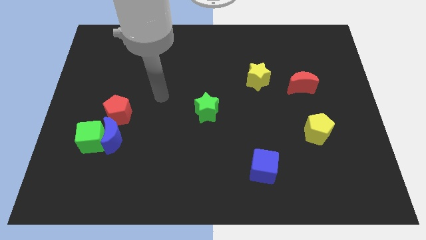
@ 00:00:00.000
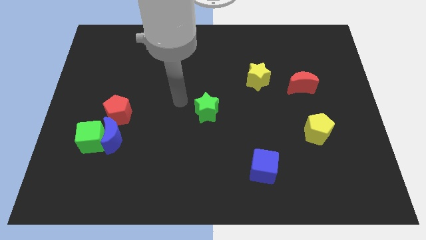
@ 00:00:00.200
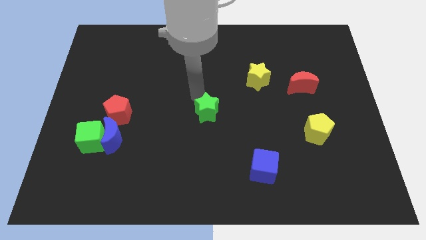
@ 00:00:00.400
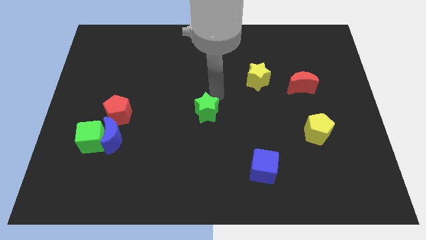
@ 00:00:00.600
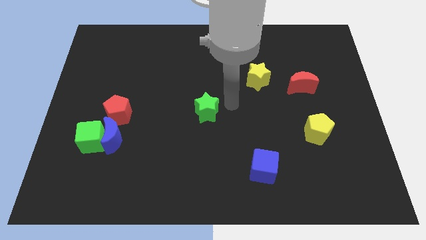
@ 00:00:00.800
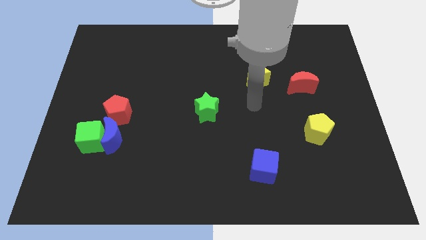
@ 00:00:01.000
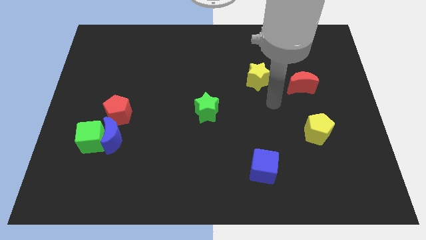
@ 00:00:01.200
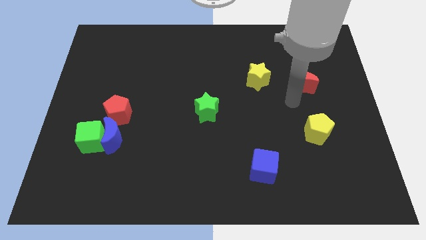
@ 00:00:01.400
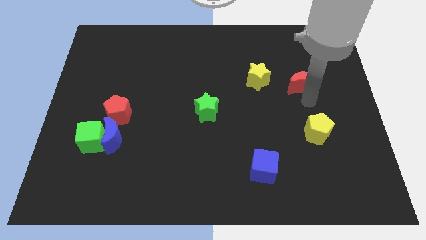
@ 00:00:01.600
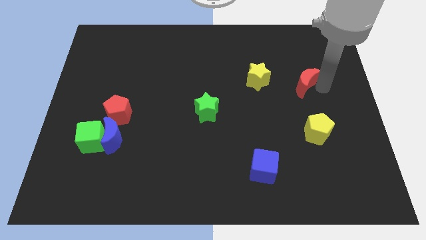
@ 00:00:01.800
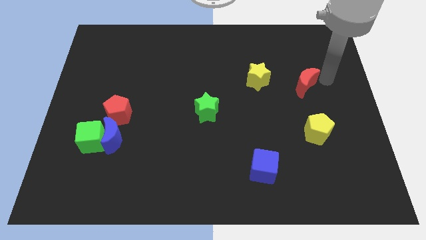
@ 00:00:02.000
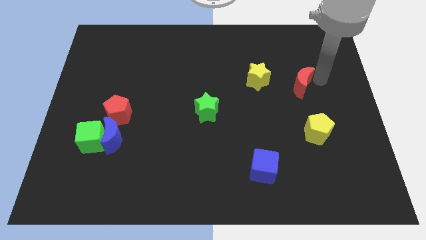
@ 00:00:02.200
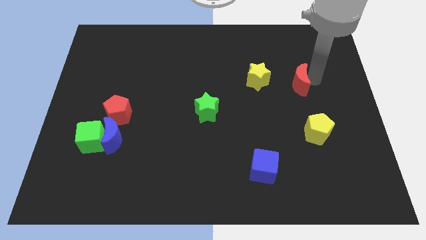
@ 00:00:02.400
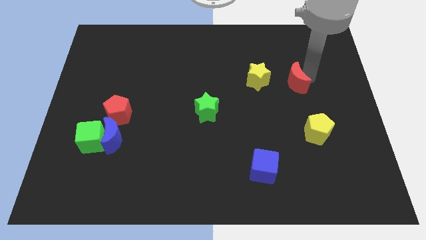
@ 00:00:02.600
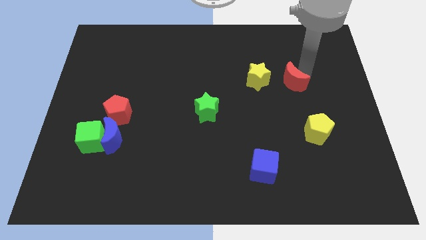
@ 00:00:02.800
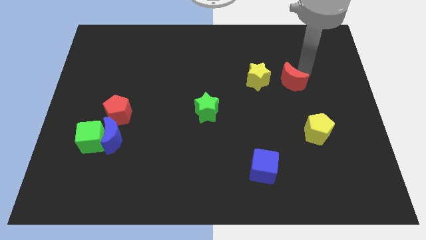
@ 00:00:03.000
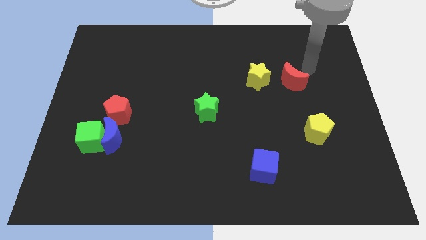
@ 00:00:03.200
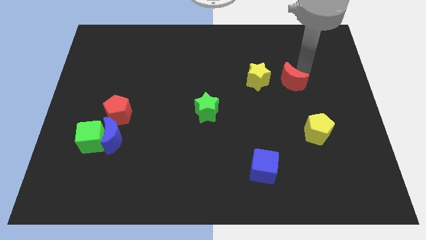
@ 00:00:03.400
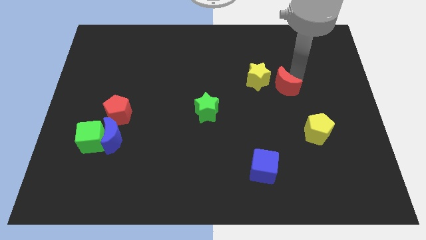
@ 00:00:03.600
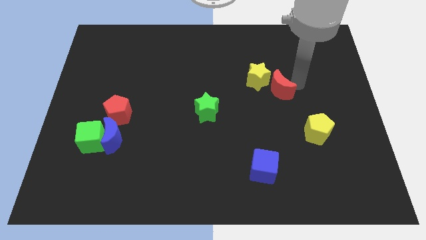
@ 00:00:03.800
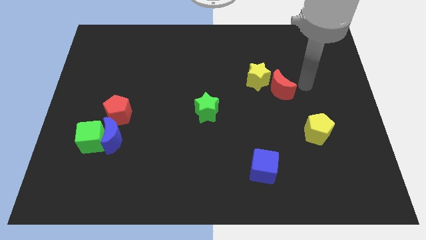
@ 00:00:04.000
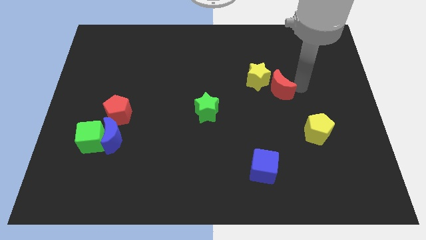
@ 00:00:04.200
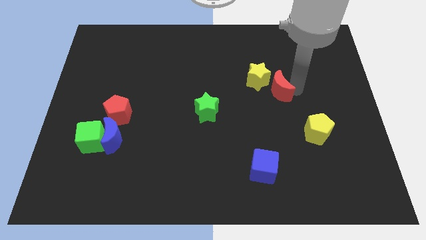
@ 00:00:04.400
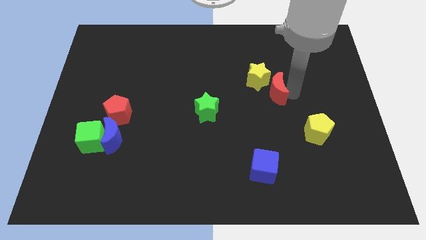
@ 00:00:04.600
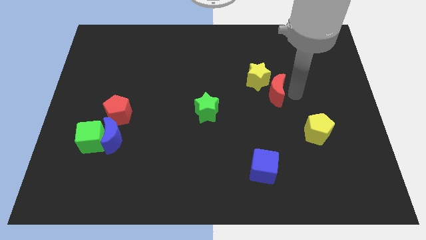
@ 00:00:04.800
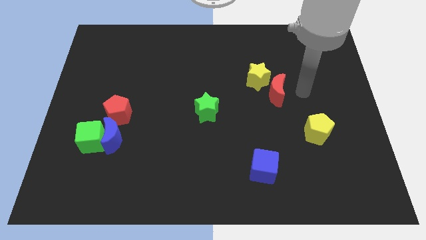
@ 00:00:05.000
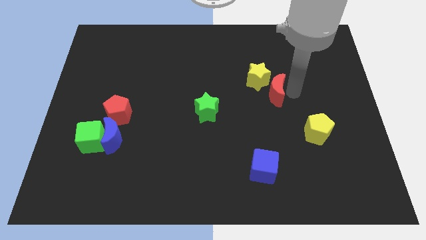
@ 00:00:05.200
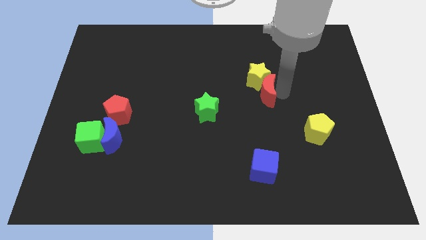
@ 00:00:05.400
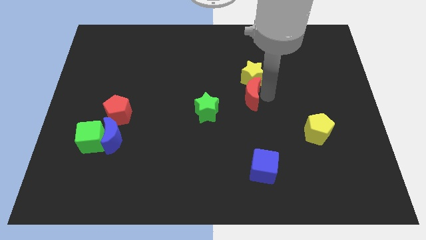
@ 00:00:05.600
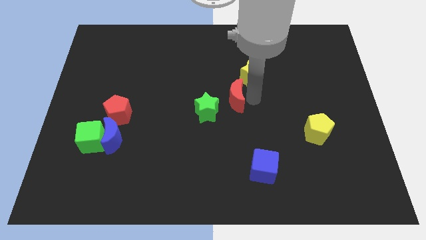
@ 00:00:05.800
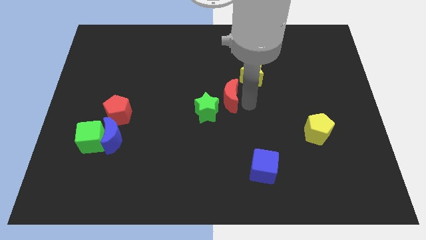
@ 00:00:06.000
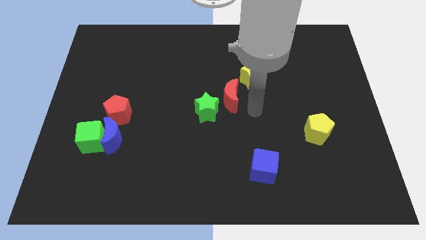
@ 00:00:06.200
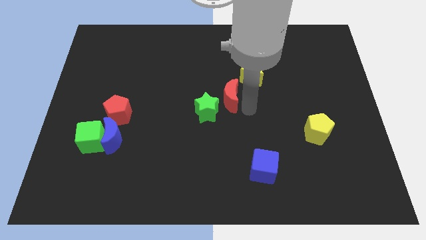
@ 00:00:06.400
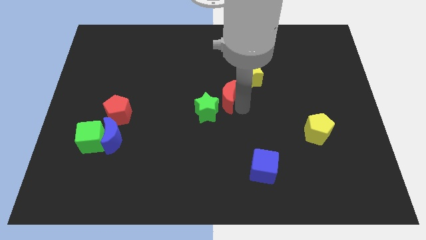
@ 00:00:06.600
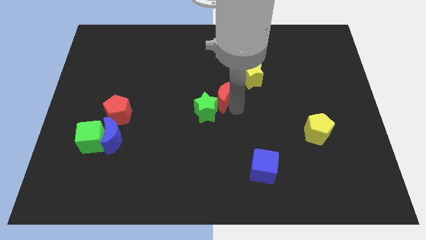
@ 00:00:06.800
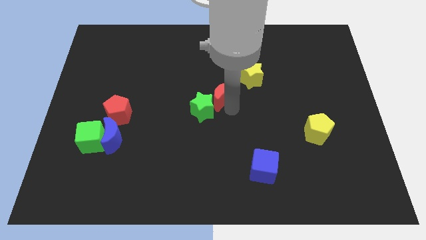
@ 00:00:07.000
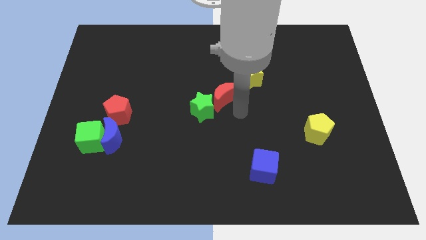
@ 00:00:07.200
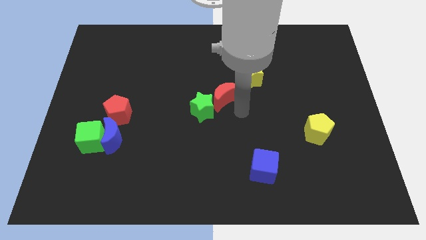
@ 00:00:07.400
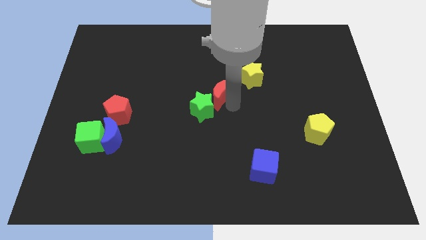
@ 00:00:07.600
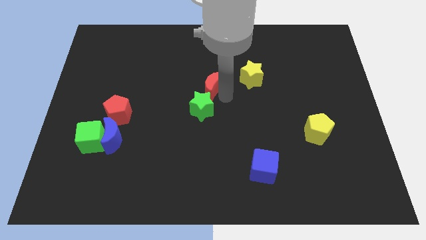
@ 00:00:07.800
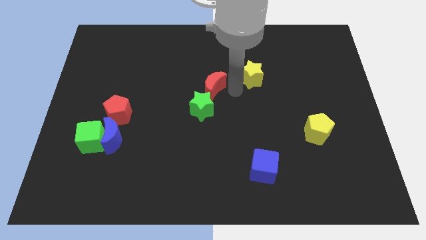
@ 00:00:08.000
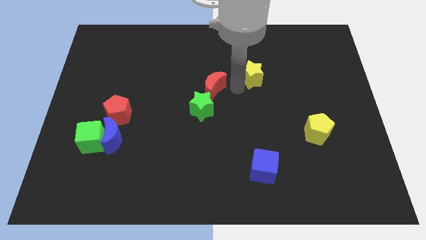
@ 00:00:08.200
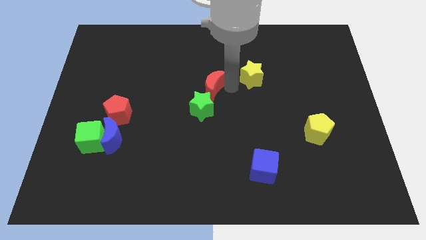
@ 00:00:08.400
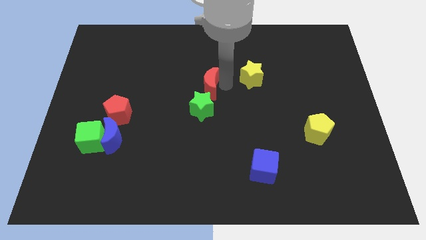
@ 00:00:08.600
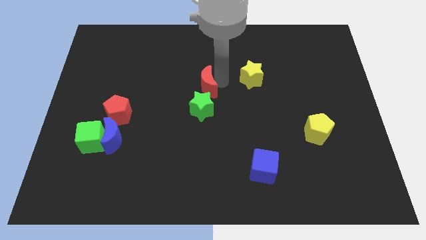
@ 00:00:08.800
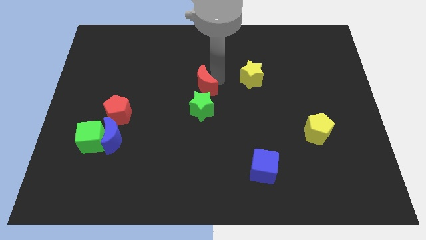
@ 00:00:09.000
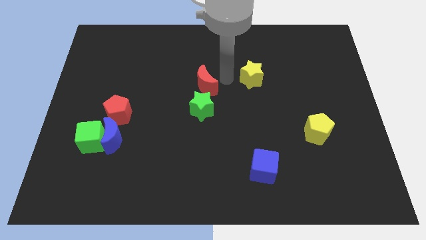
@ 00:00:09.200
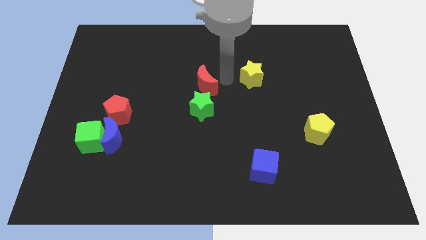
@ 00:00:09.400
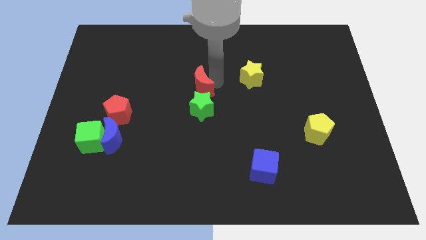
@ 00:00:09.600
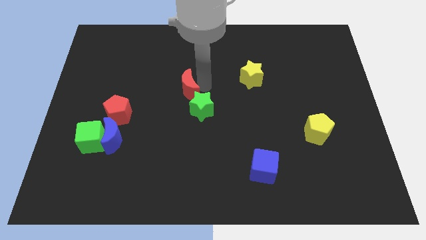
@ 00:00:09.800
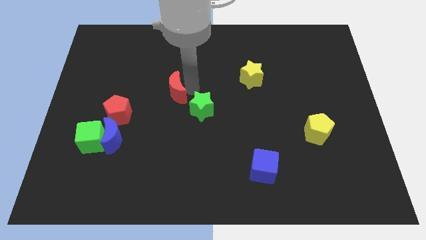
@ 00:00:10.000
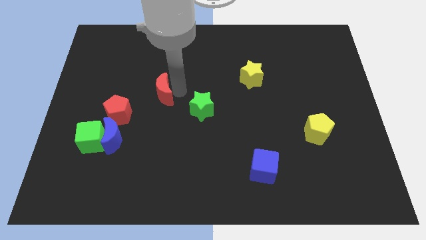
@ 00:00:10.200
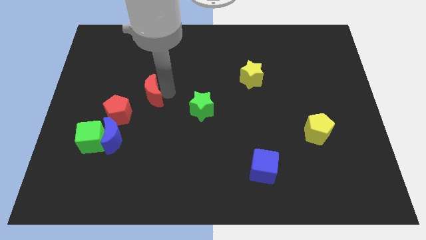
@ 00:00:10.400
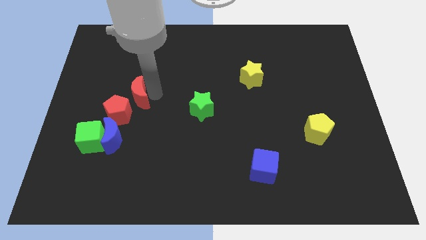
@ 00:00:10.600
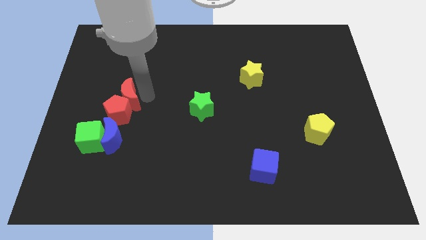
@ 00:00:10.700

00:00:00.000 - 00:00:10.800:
push the red moon diagonally up and to the left of the red pentagon

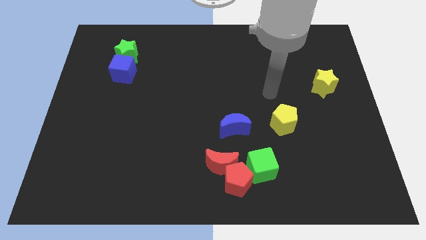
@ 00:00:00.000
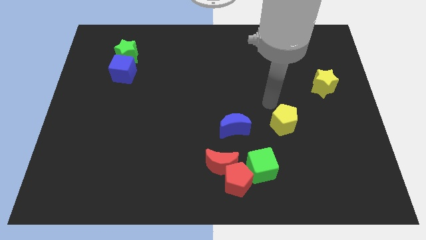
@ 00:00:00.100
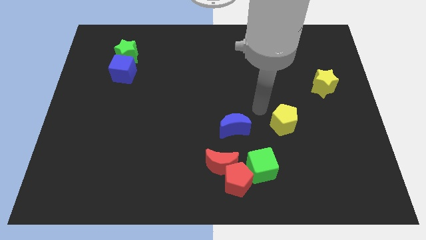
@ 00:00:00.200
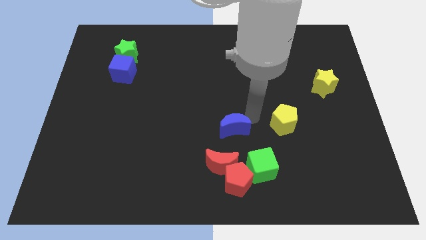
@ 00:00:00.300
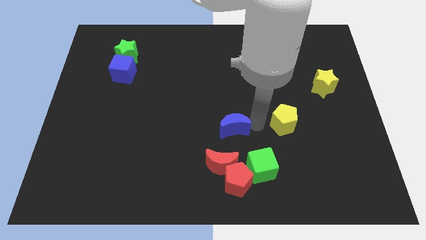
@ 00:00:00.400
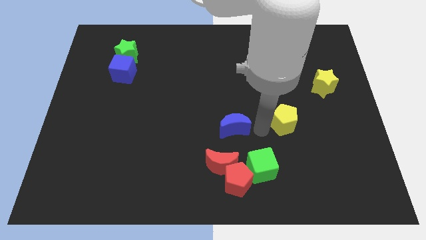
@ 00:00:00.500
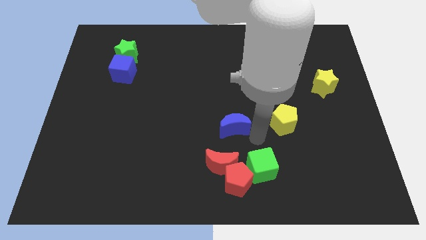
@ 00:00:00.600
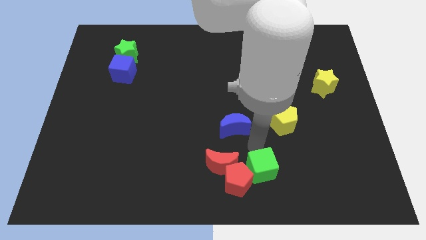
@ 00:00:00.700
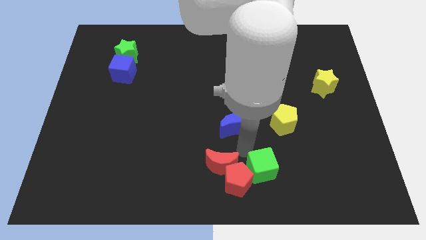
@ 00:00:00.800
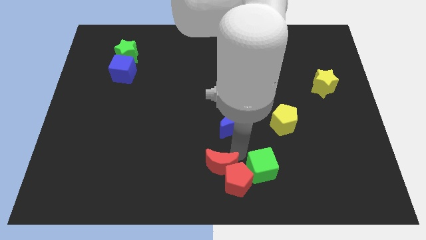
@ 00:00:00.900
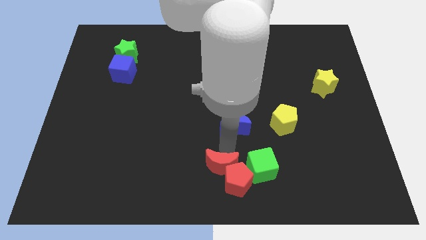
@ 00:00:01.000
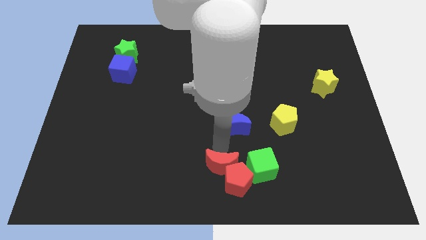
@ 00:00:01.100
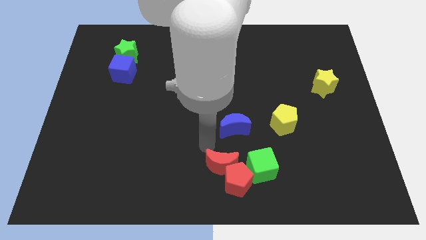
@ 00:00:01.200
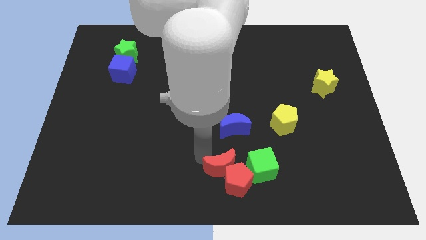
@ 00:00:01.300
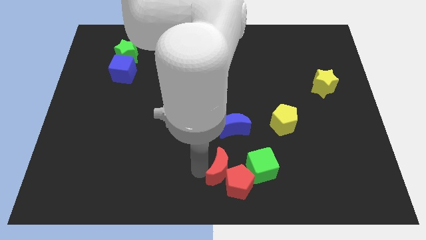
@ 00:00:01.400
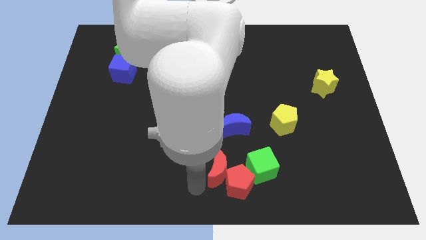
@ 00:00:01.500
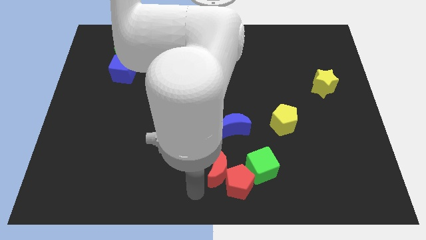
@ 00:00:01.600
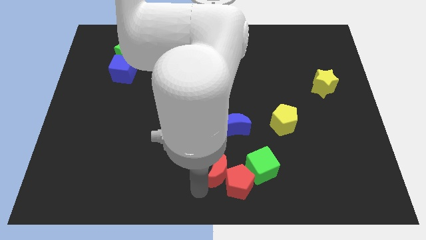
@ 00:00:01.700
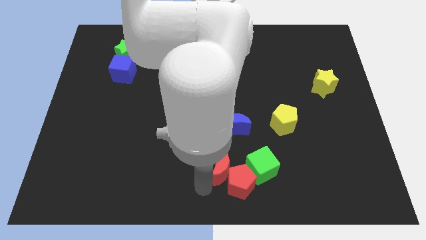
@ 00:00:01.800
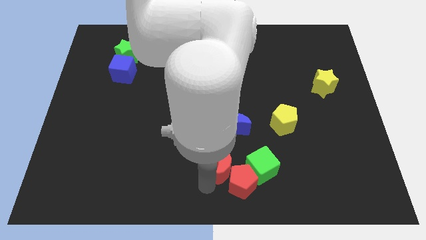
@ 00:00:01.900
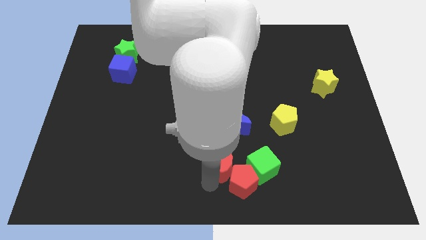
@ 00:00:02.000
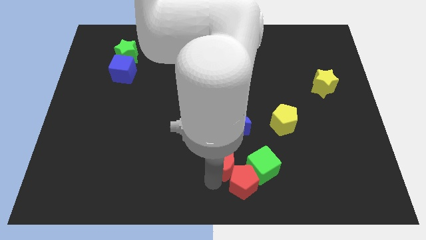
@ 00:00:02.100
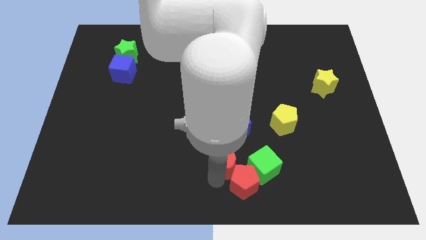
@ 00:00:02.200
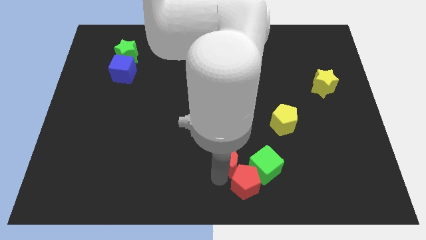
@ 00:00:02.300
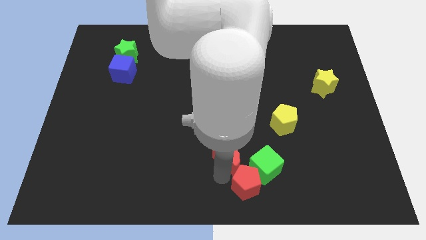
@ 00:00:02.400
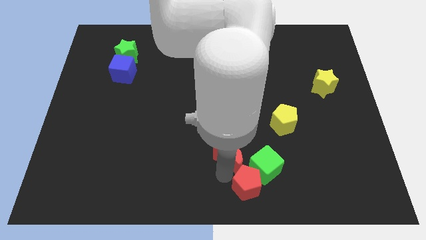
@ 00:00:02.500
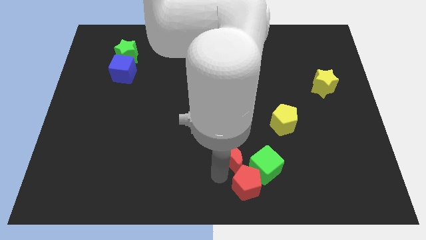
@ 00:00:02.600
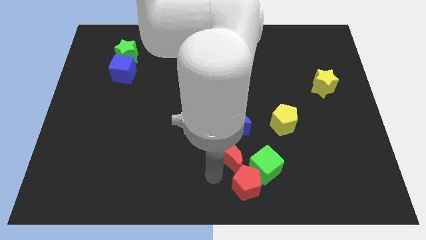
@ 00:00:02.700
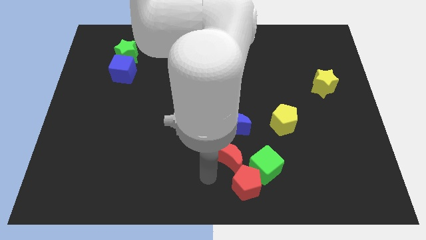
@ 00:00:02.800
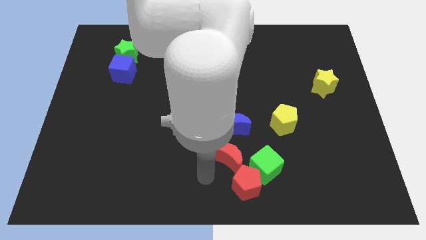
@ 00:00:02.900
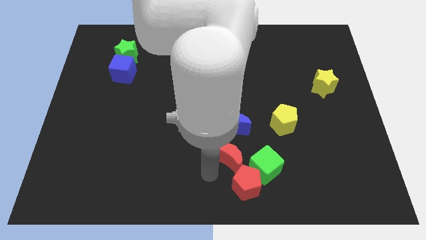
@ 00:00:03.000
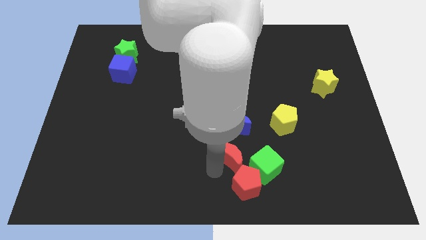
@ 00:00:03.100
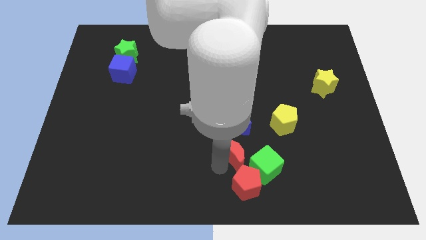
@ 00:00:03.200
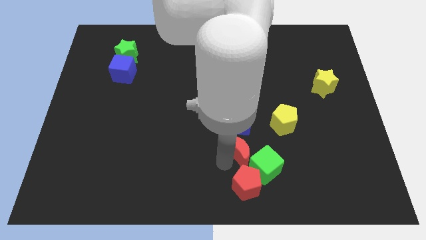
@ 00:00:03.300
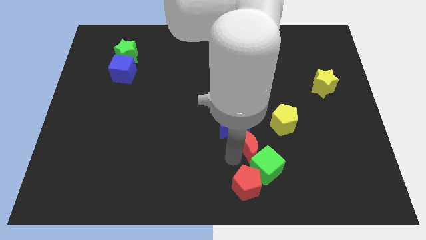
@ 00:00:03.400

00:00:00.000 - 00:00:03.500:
slide the red moon above the green cube
